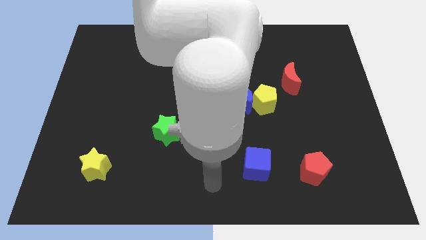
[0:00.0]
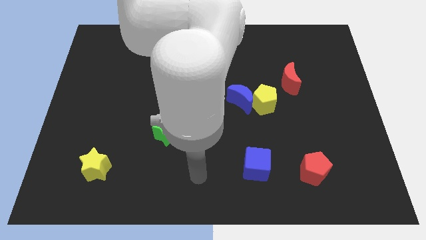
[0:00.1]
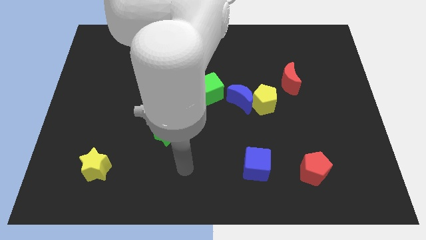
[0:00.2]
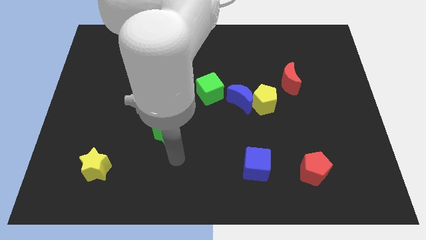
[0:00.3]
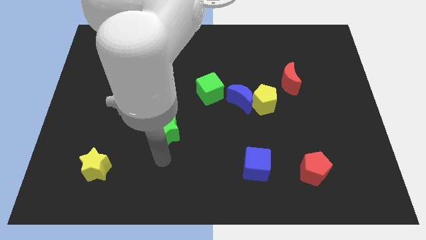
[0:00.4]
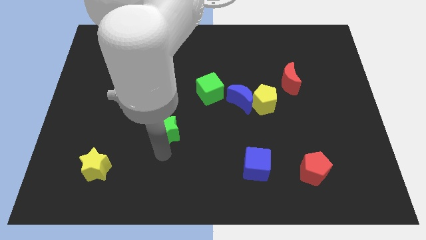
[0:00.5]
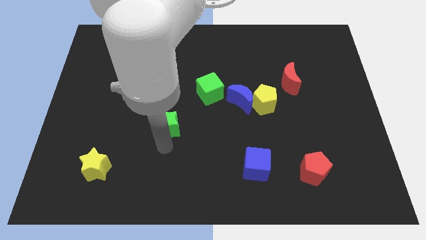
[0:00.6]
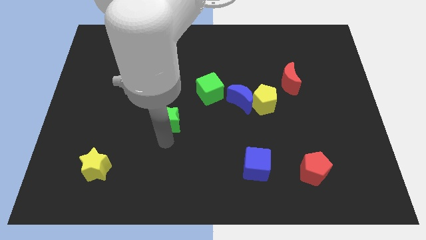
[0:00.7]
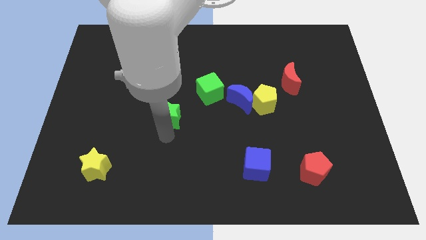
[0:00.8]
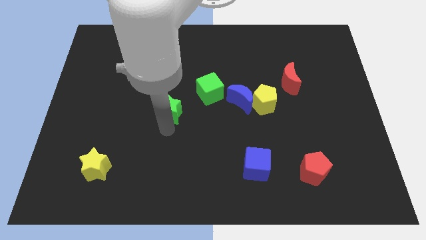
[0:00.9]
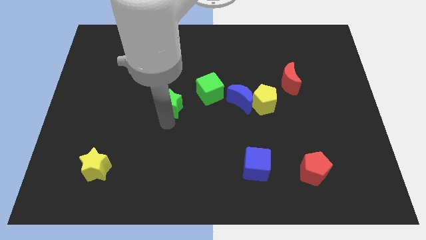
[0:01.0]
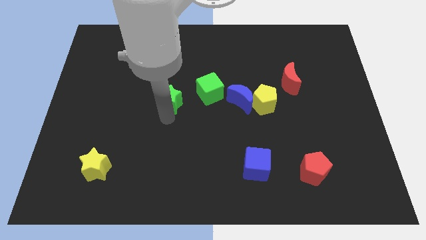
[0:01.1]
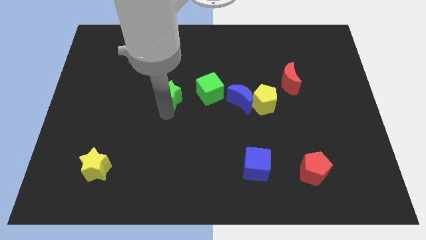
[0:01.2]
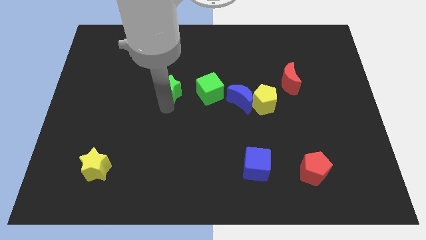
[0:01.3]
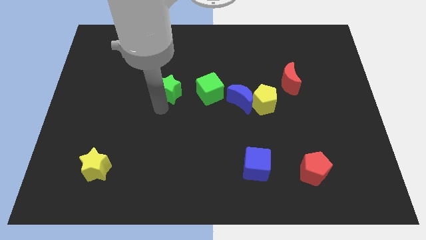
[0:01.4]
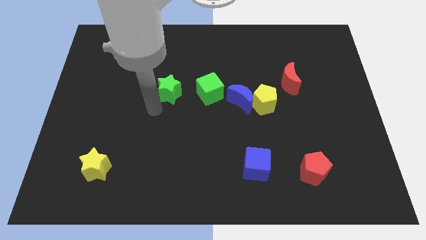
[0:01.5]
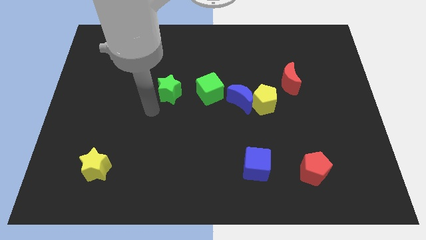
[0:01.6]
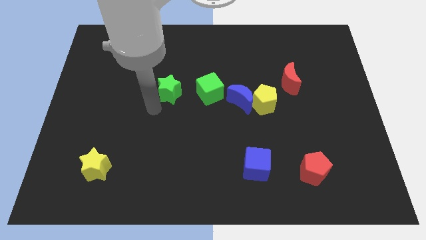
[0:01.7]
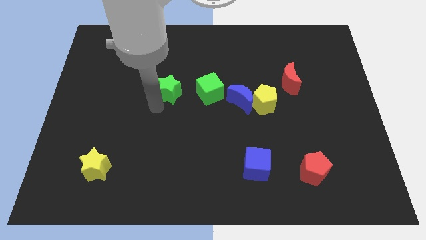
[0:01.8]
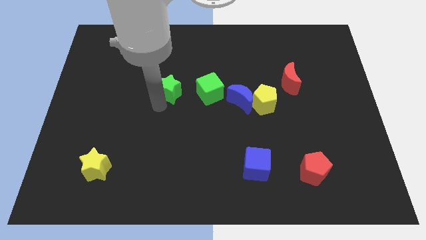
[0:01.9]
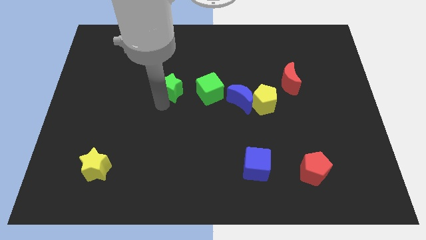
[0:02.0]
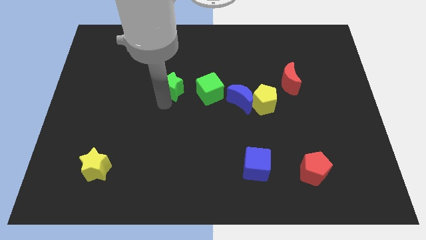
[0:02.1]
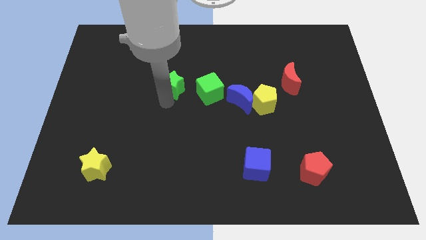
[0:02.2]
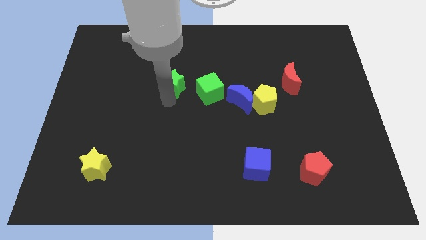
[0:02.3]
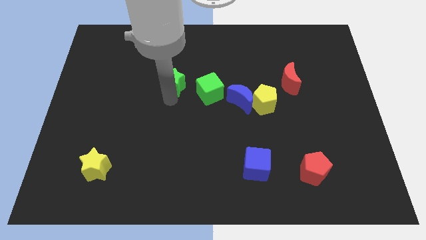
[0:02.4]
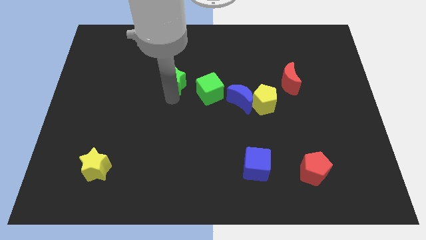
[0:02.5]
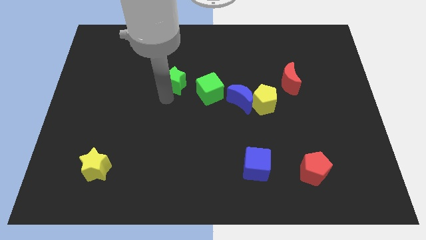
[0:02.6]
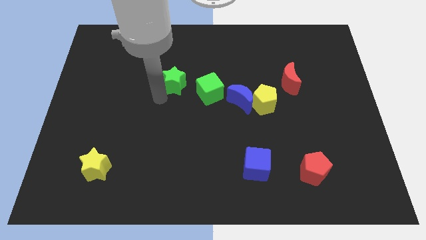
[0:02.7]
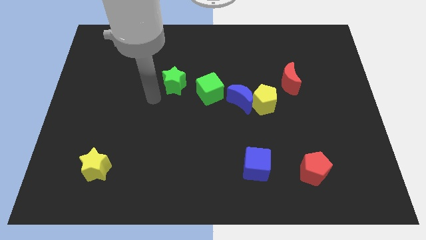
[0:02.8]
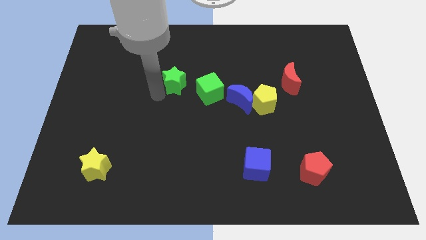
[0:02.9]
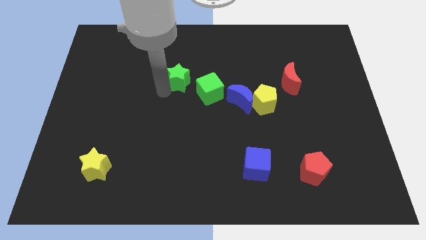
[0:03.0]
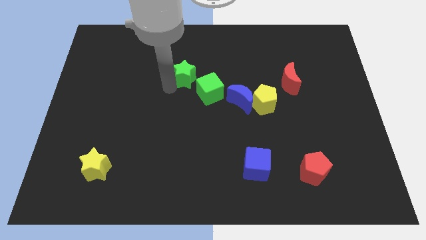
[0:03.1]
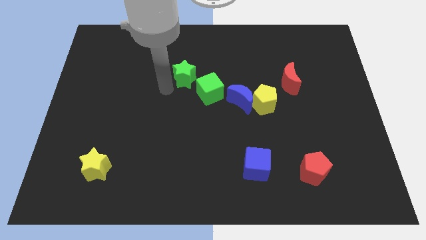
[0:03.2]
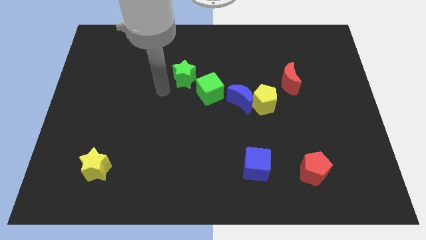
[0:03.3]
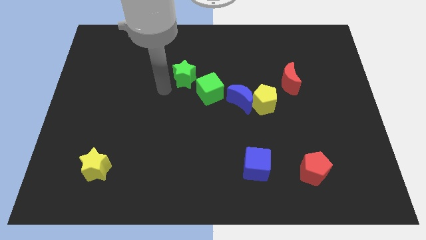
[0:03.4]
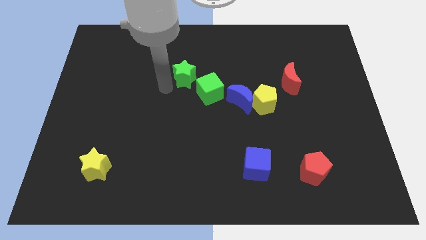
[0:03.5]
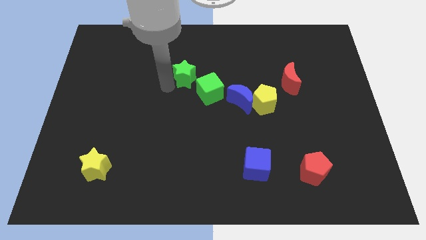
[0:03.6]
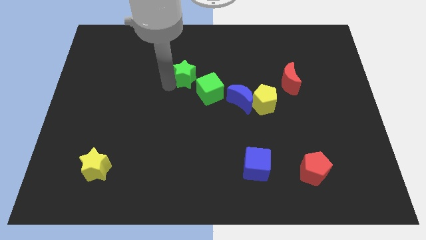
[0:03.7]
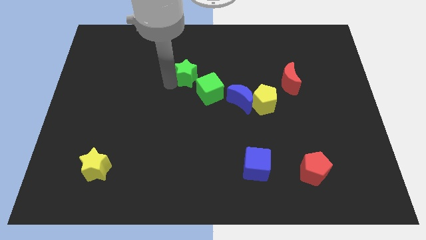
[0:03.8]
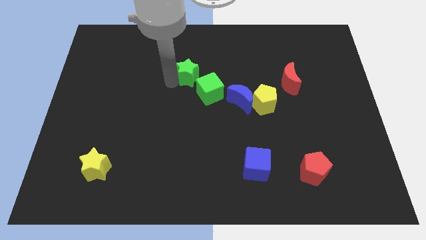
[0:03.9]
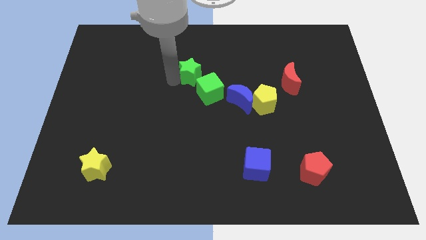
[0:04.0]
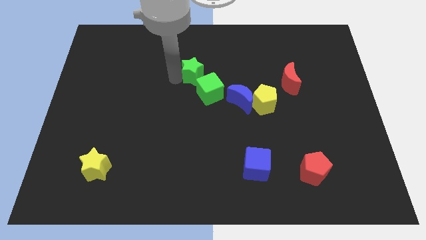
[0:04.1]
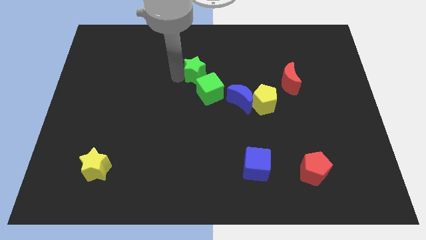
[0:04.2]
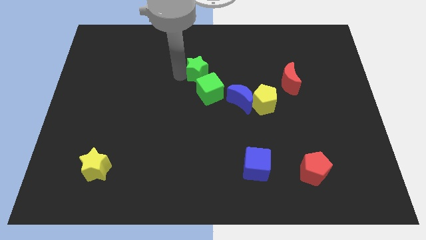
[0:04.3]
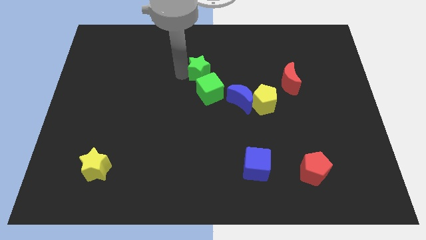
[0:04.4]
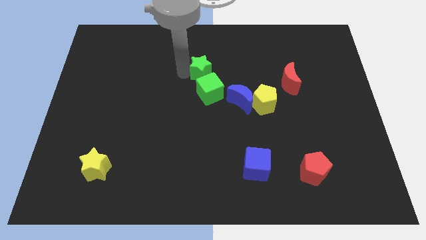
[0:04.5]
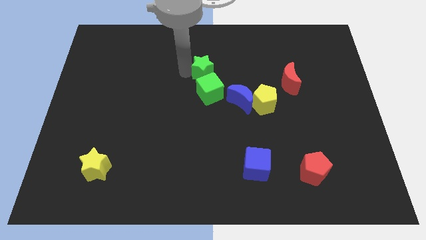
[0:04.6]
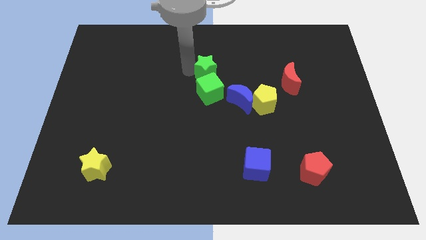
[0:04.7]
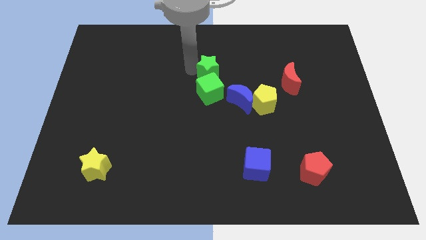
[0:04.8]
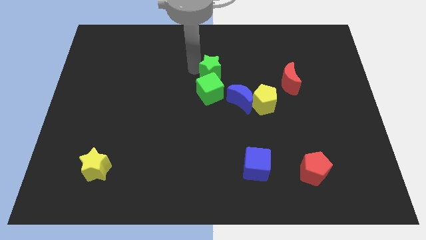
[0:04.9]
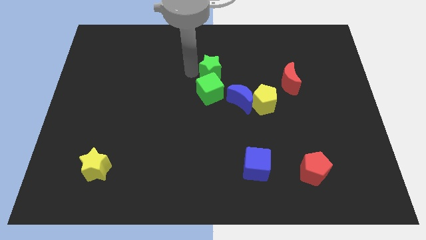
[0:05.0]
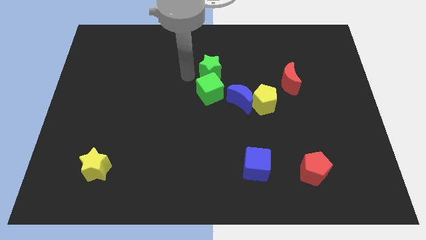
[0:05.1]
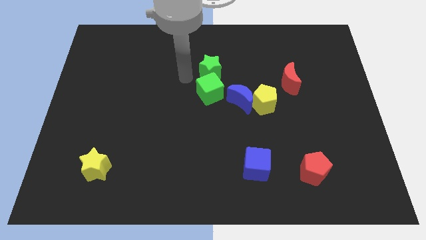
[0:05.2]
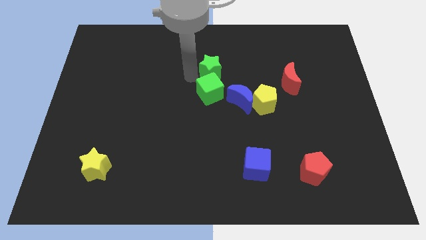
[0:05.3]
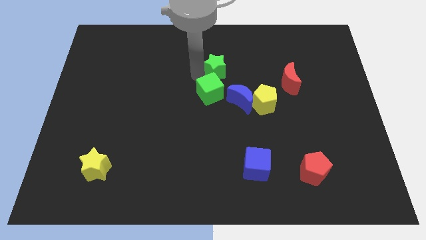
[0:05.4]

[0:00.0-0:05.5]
move the green star up and to the right

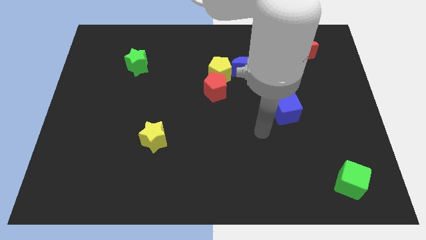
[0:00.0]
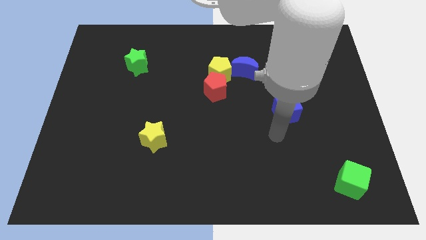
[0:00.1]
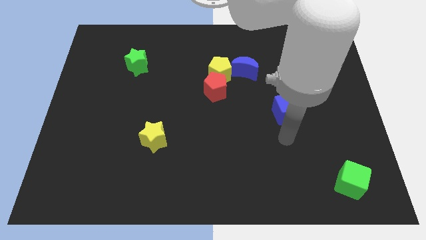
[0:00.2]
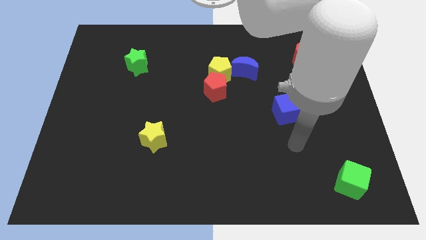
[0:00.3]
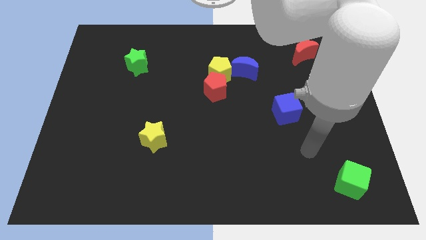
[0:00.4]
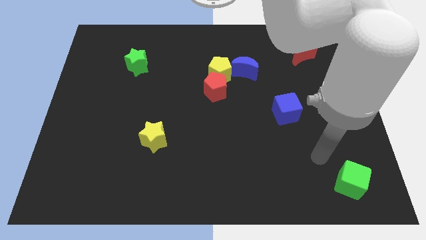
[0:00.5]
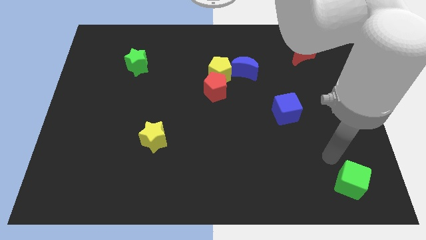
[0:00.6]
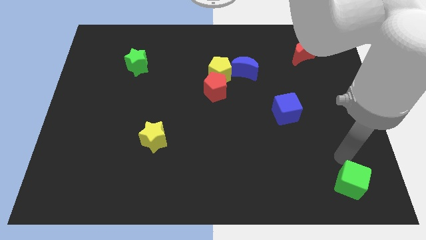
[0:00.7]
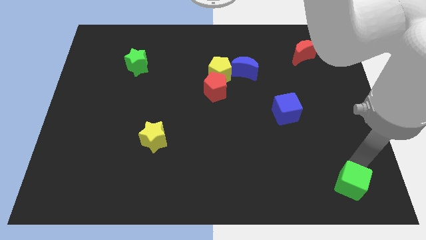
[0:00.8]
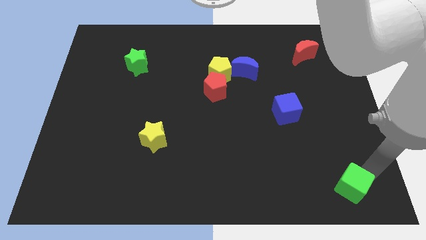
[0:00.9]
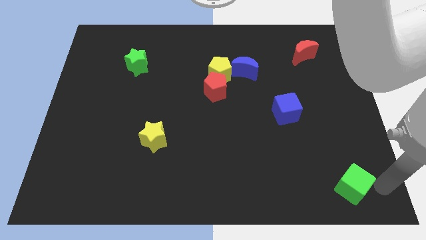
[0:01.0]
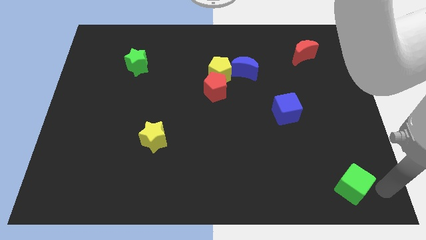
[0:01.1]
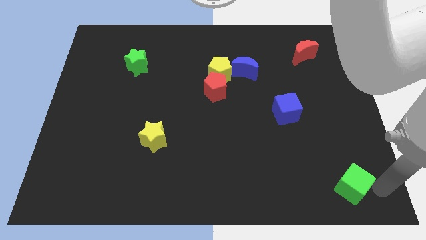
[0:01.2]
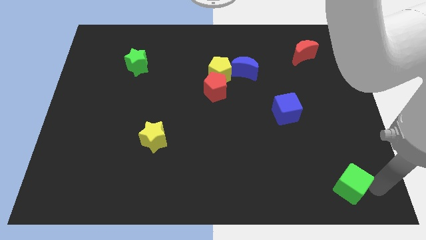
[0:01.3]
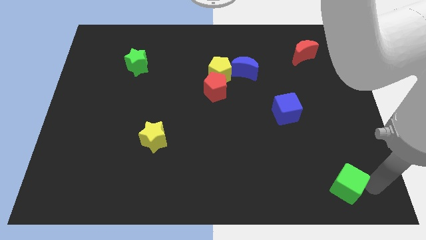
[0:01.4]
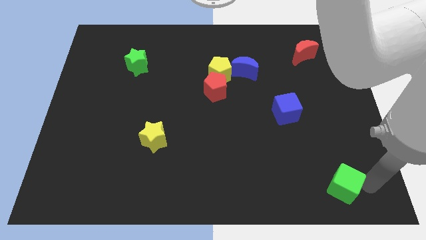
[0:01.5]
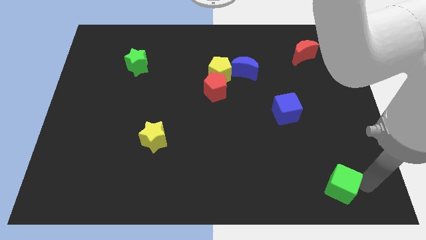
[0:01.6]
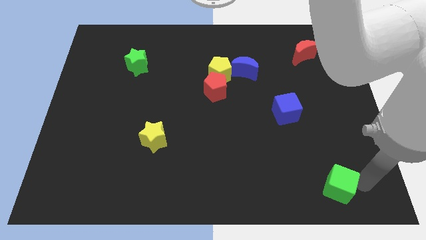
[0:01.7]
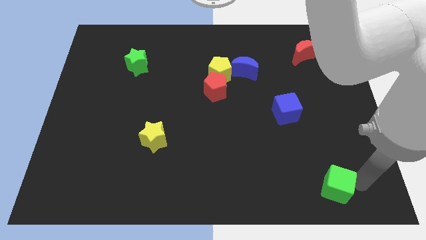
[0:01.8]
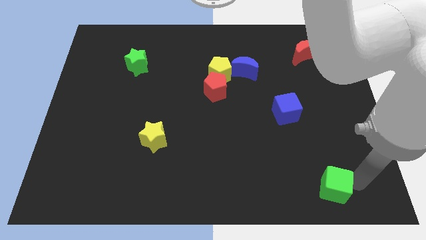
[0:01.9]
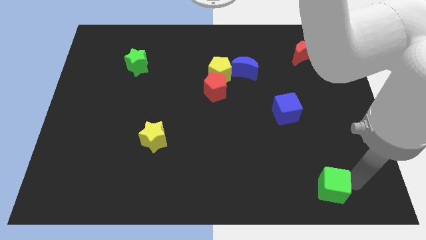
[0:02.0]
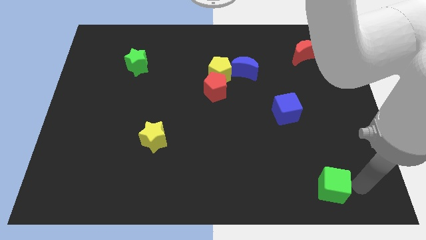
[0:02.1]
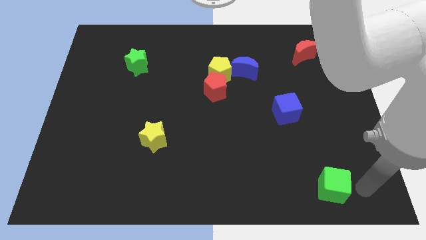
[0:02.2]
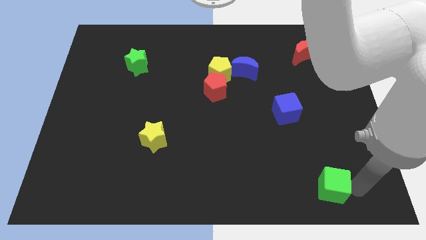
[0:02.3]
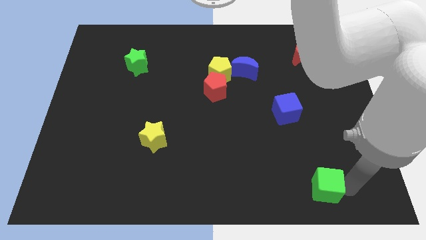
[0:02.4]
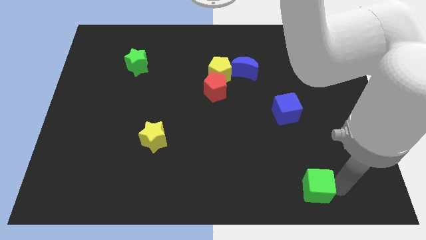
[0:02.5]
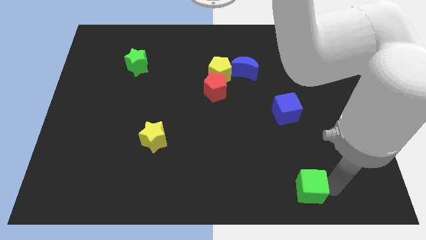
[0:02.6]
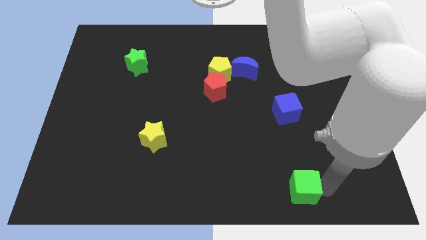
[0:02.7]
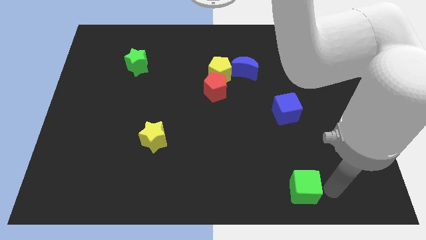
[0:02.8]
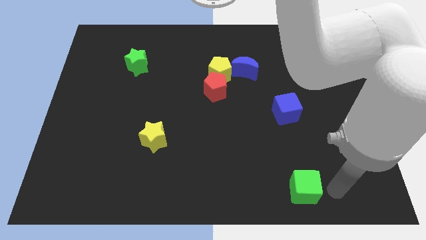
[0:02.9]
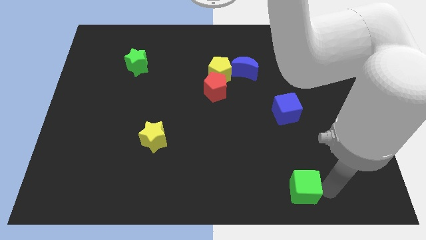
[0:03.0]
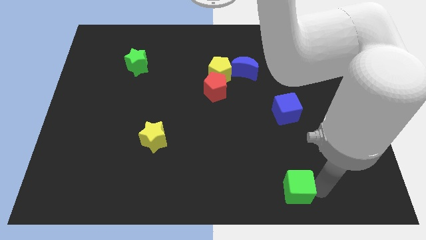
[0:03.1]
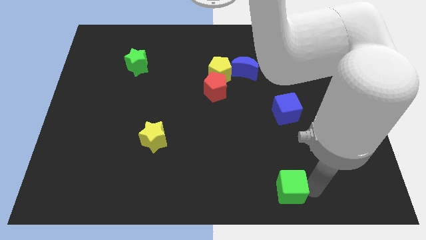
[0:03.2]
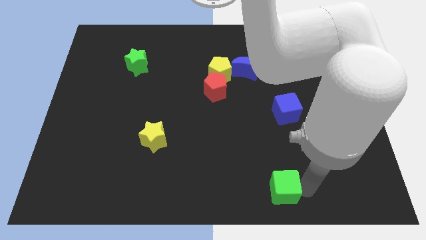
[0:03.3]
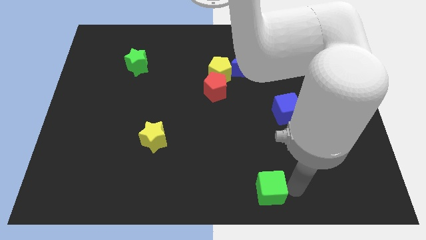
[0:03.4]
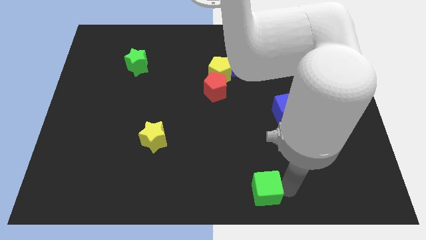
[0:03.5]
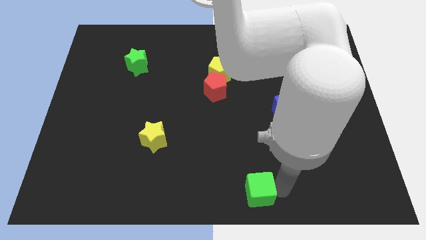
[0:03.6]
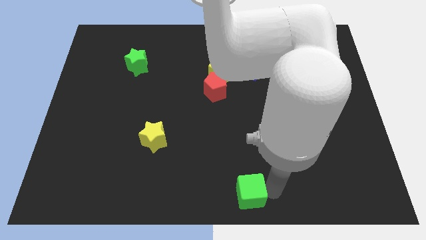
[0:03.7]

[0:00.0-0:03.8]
slide the green cube to the left
